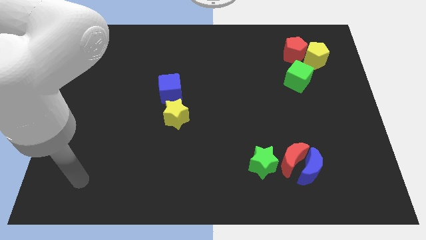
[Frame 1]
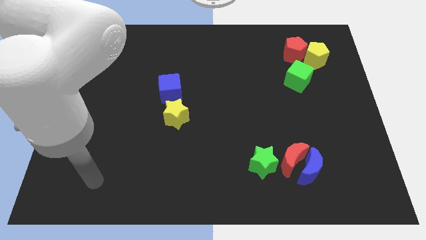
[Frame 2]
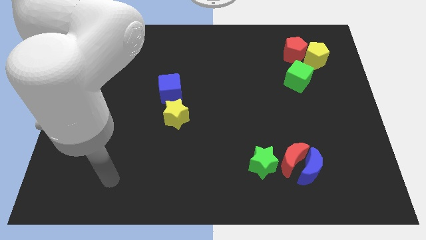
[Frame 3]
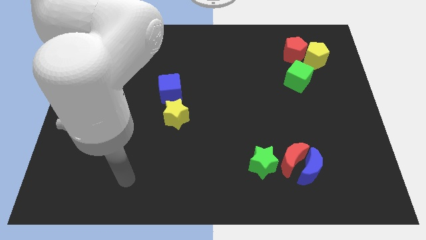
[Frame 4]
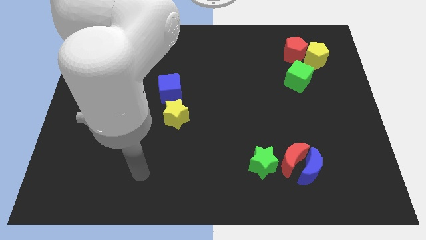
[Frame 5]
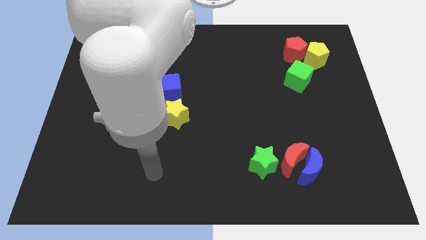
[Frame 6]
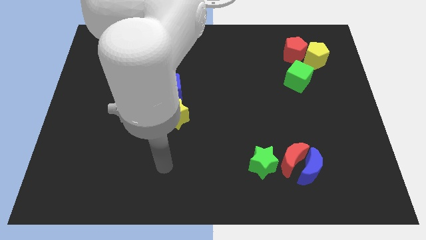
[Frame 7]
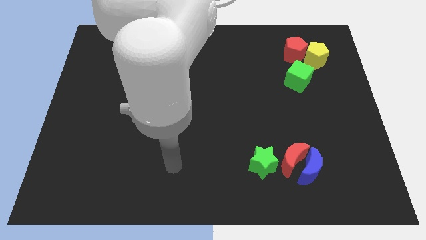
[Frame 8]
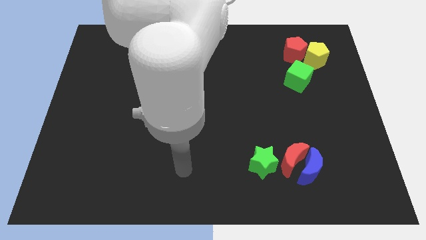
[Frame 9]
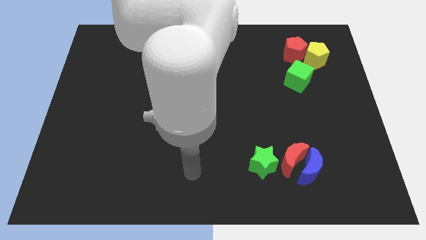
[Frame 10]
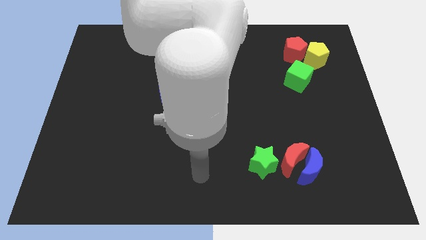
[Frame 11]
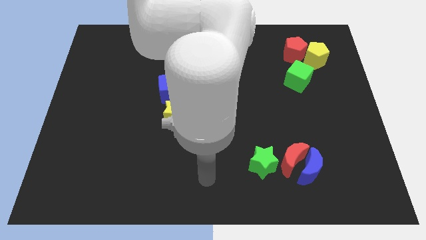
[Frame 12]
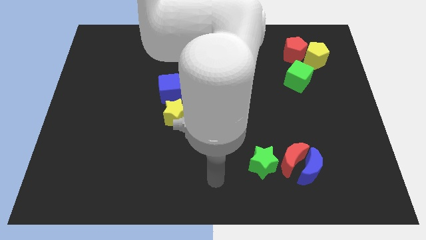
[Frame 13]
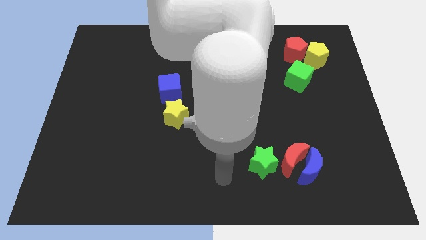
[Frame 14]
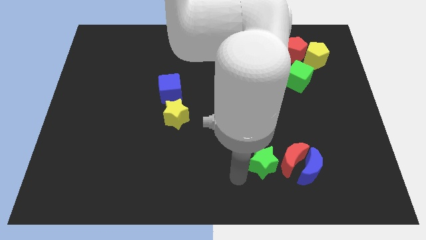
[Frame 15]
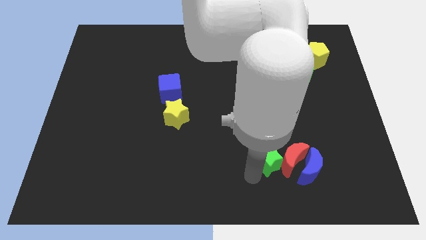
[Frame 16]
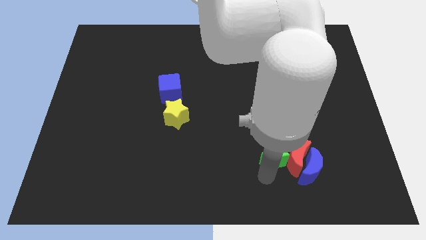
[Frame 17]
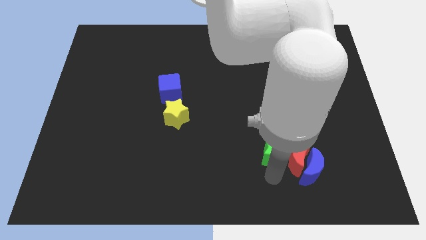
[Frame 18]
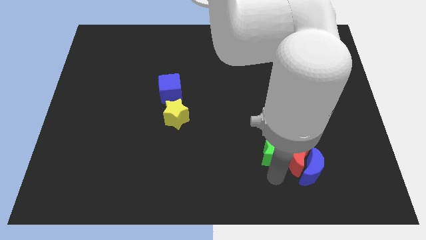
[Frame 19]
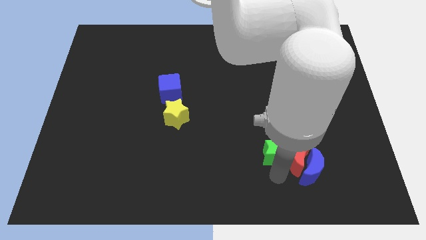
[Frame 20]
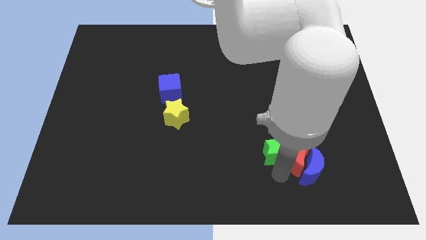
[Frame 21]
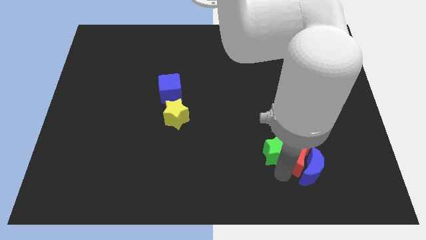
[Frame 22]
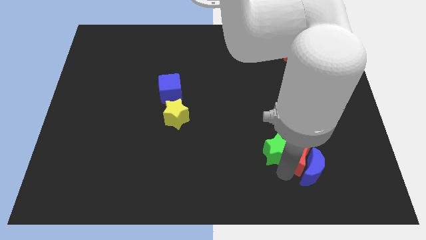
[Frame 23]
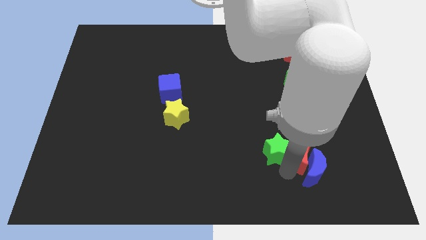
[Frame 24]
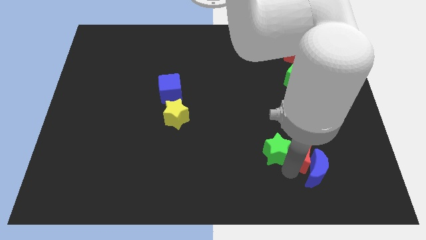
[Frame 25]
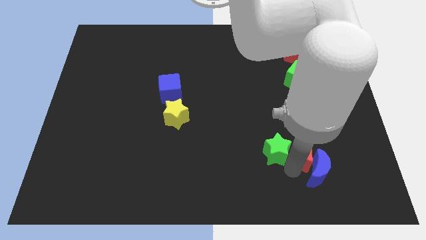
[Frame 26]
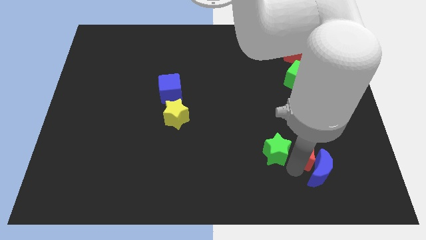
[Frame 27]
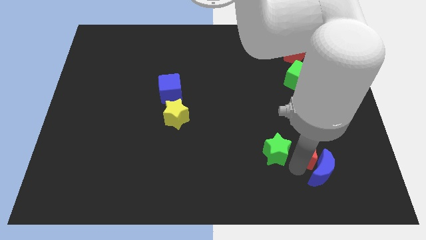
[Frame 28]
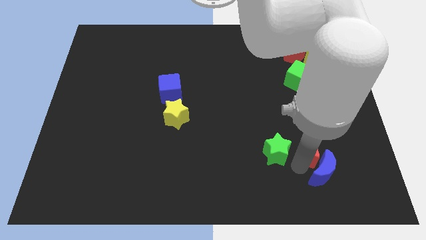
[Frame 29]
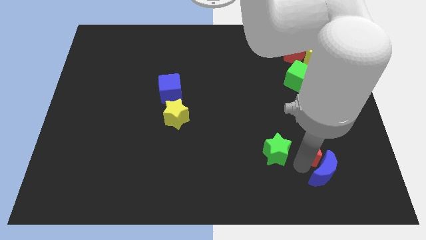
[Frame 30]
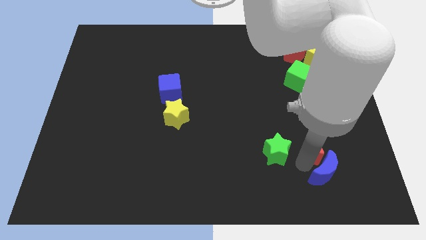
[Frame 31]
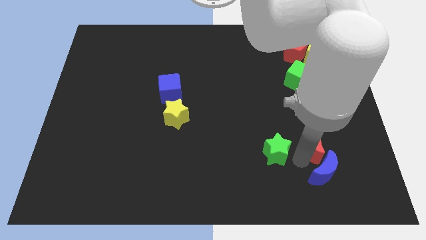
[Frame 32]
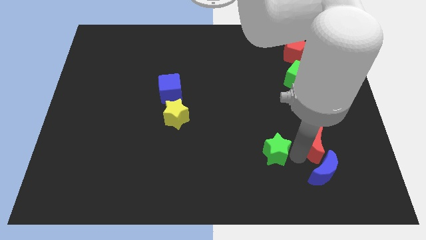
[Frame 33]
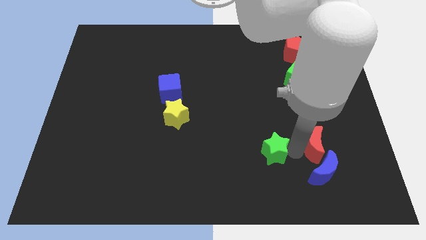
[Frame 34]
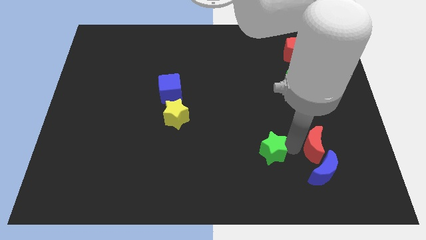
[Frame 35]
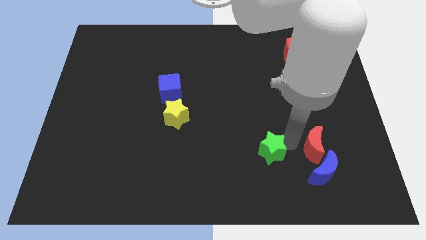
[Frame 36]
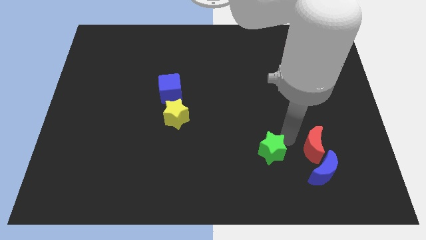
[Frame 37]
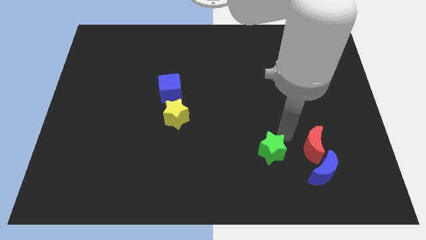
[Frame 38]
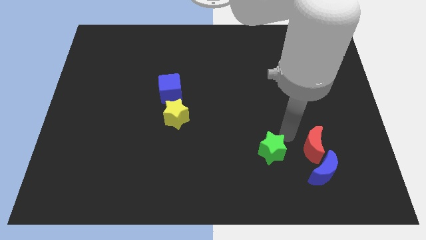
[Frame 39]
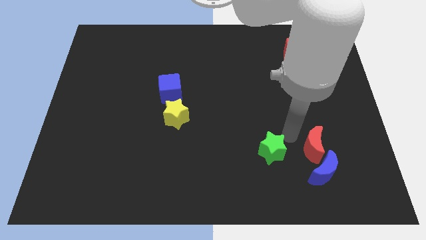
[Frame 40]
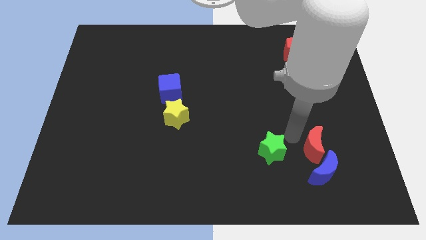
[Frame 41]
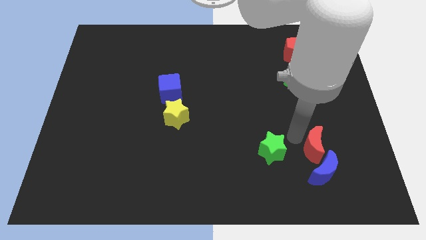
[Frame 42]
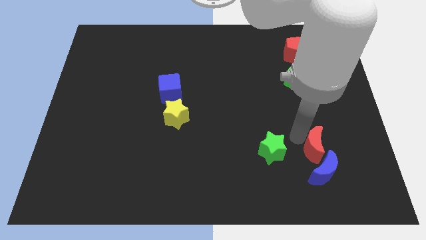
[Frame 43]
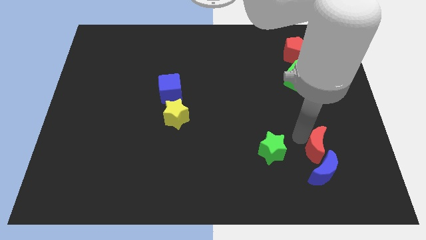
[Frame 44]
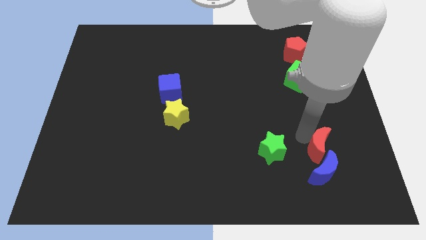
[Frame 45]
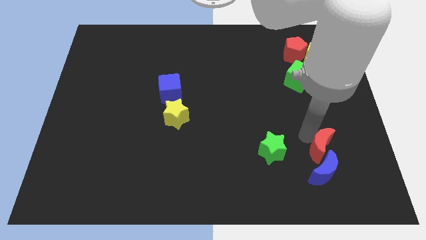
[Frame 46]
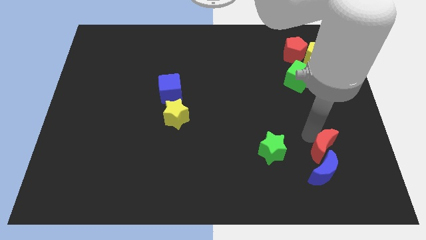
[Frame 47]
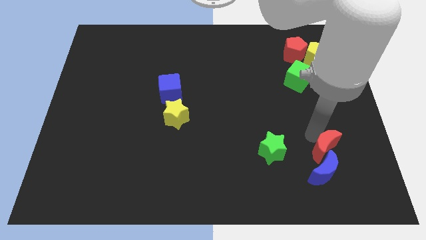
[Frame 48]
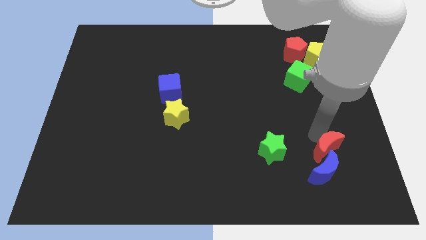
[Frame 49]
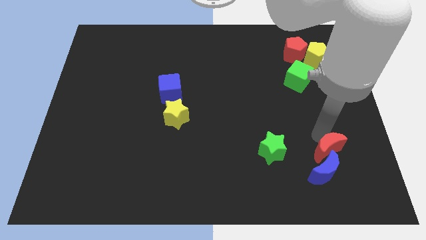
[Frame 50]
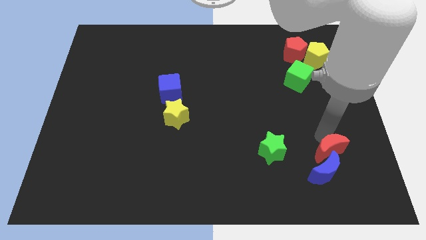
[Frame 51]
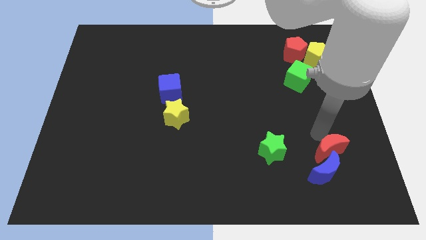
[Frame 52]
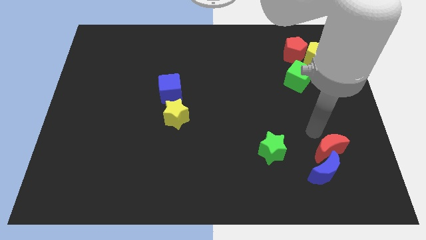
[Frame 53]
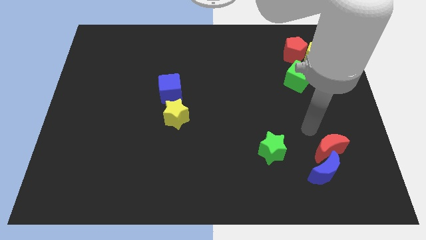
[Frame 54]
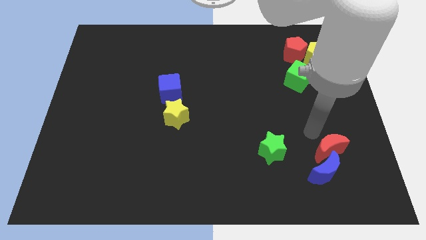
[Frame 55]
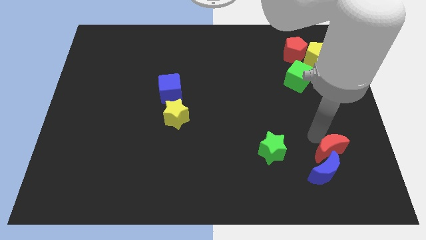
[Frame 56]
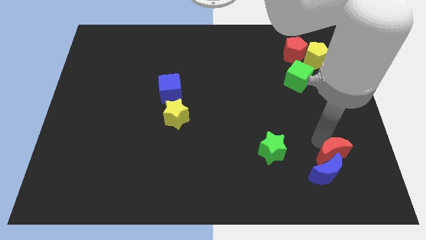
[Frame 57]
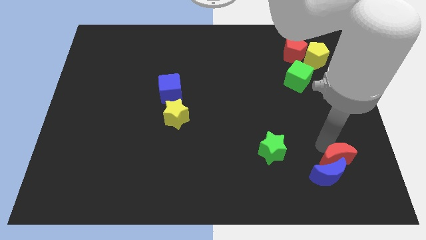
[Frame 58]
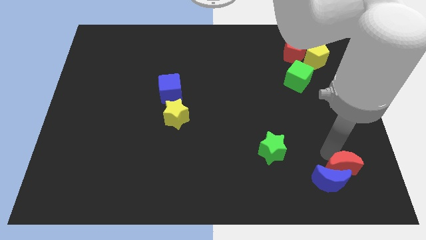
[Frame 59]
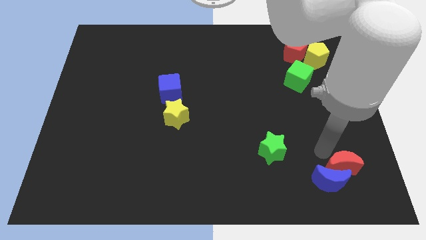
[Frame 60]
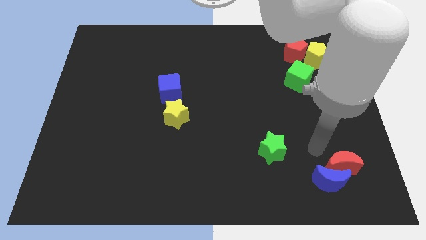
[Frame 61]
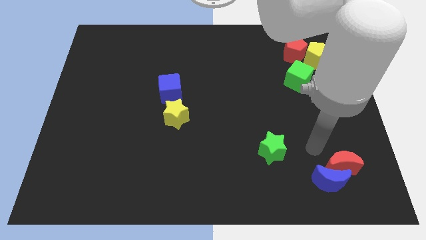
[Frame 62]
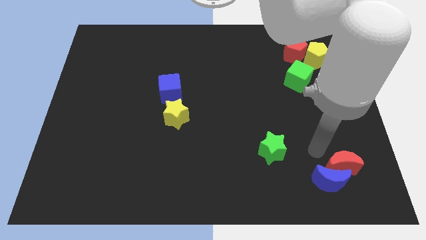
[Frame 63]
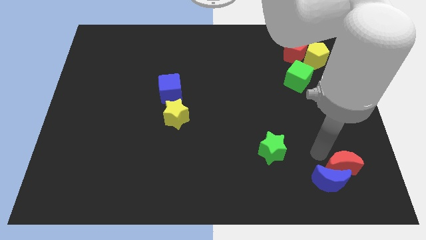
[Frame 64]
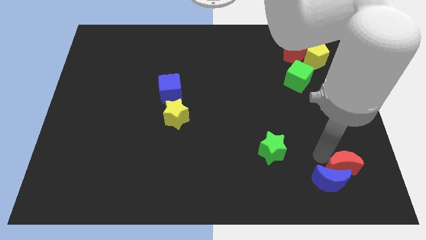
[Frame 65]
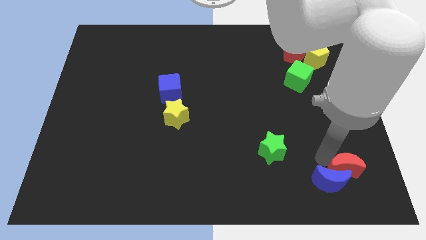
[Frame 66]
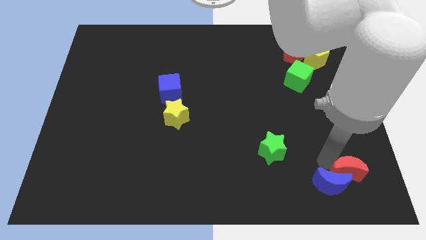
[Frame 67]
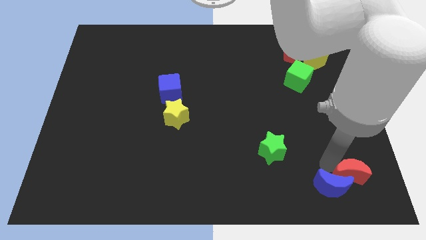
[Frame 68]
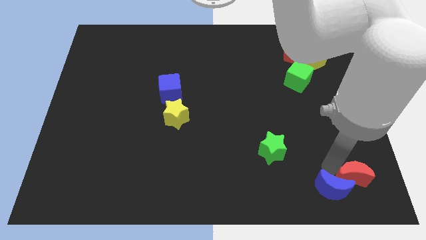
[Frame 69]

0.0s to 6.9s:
put the red moon to the lower right corner
